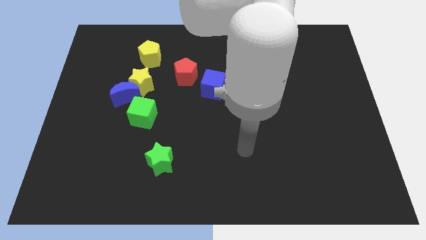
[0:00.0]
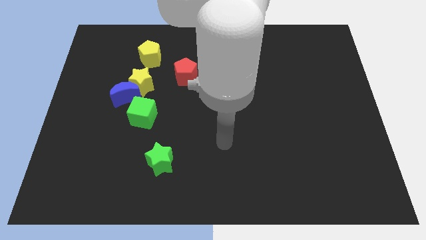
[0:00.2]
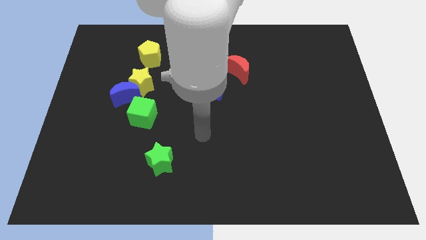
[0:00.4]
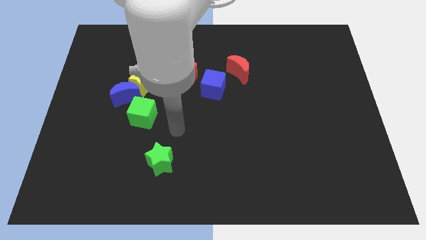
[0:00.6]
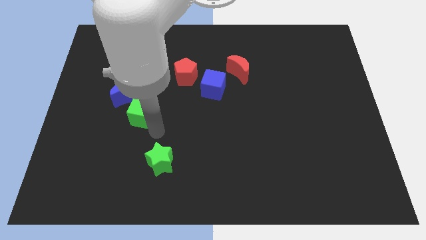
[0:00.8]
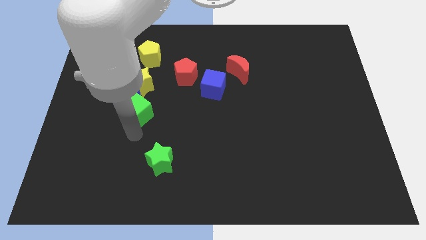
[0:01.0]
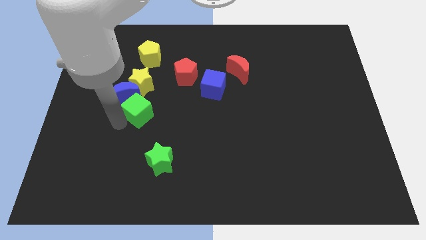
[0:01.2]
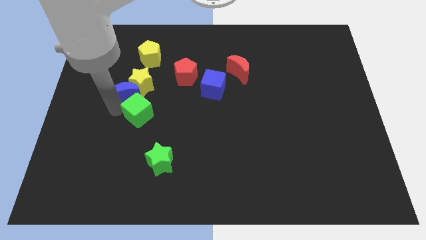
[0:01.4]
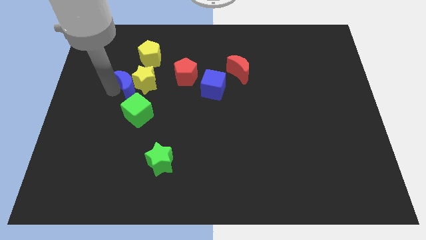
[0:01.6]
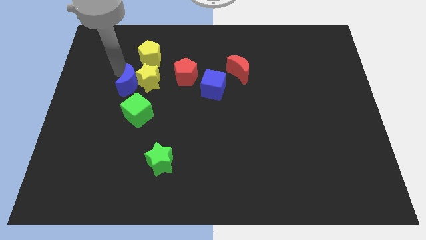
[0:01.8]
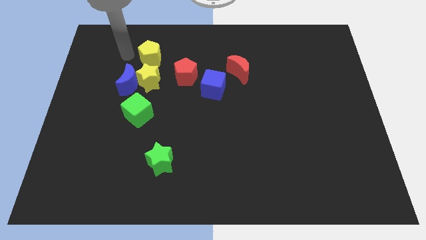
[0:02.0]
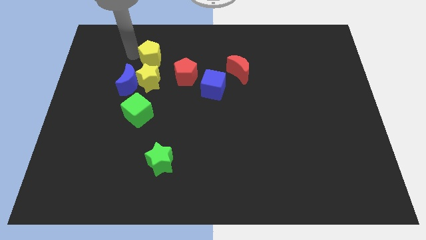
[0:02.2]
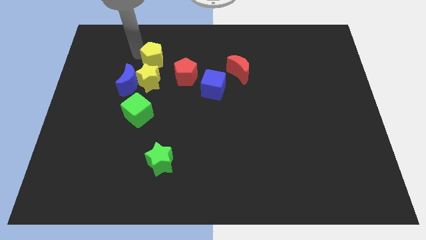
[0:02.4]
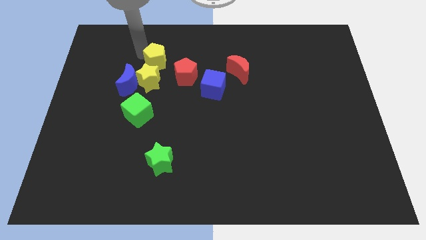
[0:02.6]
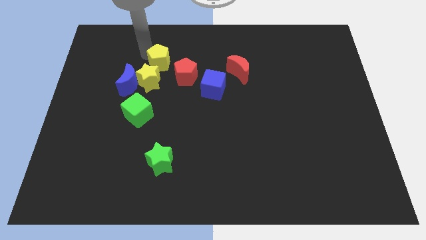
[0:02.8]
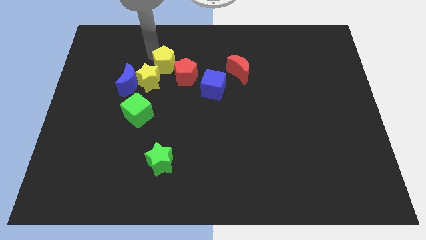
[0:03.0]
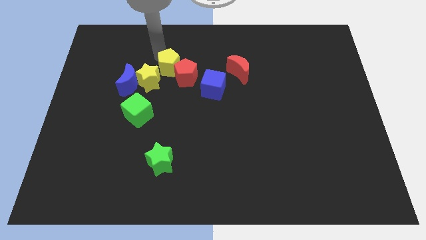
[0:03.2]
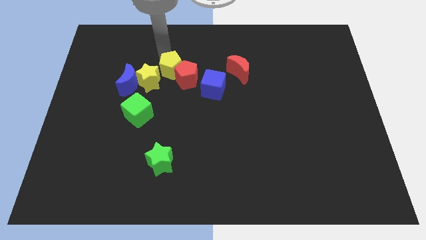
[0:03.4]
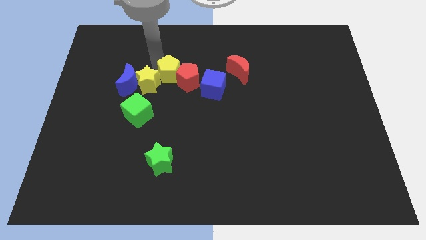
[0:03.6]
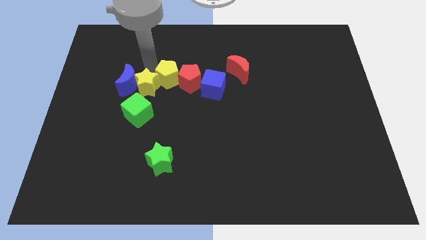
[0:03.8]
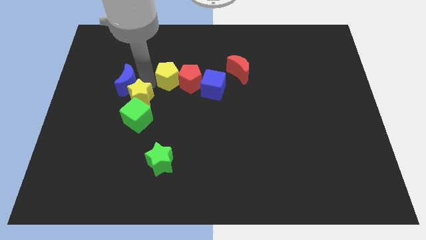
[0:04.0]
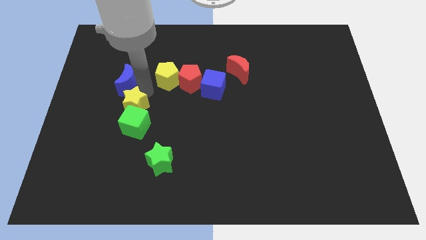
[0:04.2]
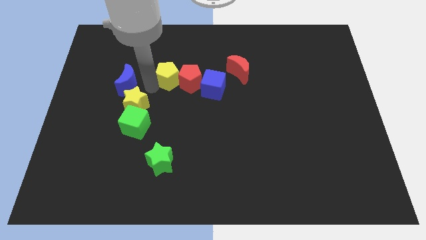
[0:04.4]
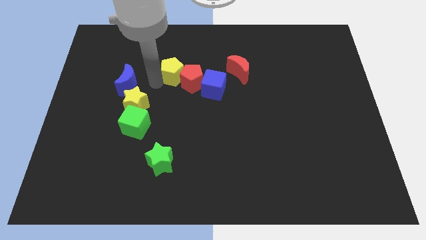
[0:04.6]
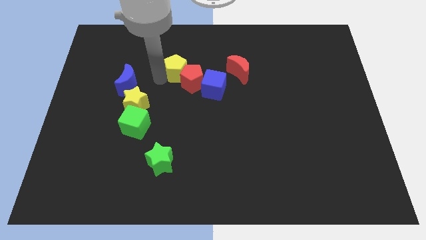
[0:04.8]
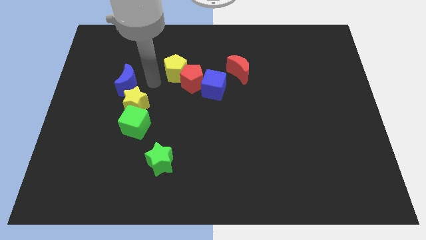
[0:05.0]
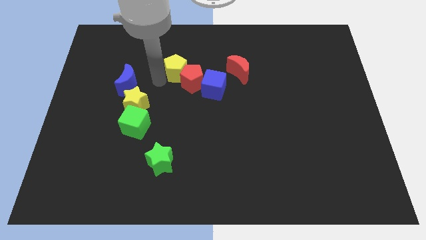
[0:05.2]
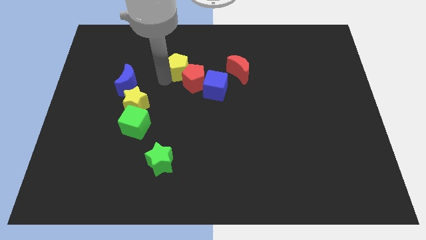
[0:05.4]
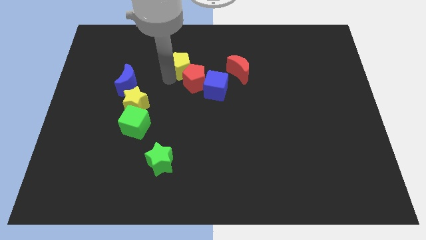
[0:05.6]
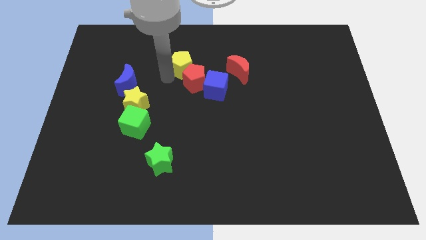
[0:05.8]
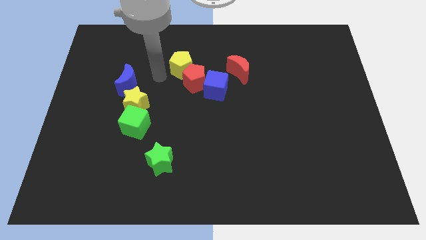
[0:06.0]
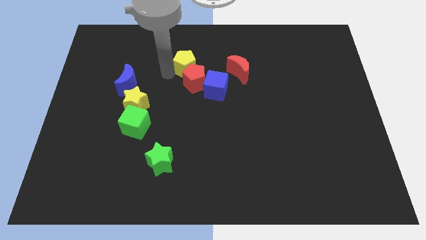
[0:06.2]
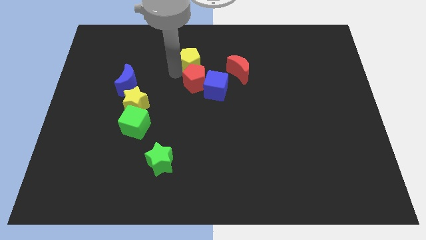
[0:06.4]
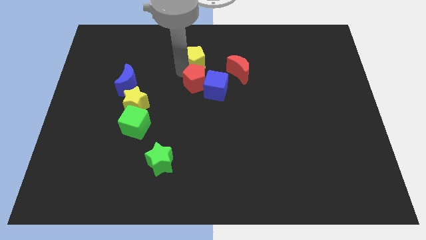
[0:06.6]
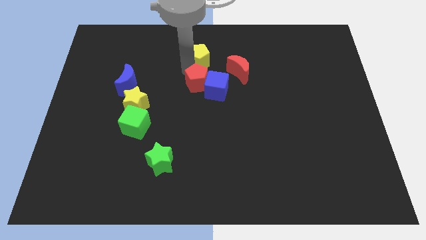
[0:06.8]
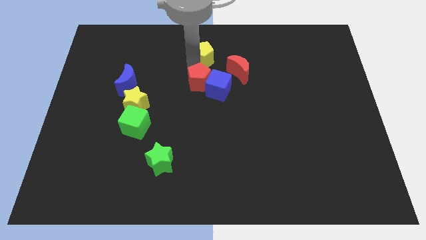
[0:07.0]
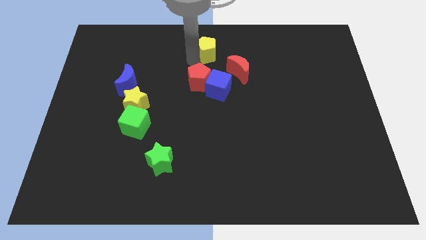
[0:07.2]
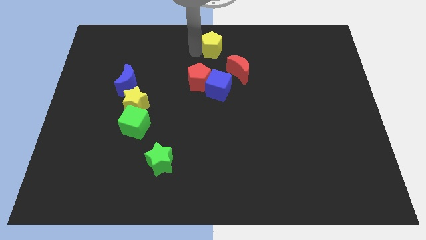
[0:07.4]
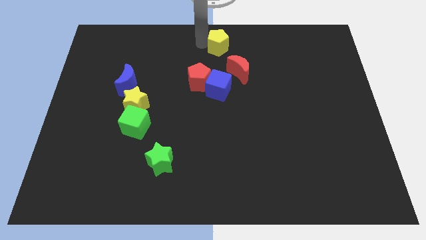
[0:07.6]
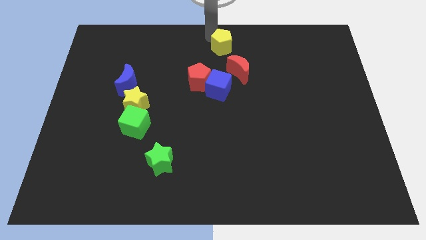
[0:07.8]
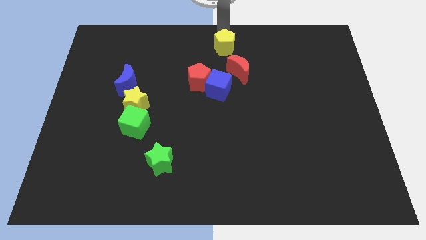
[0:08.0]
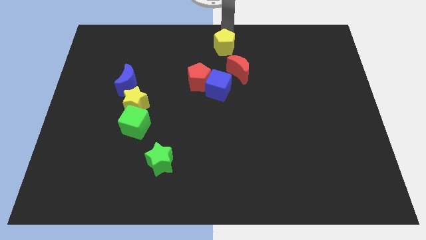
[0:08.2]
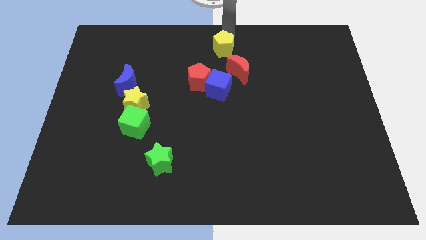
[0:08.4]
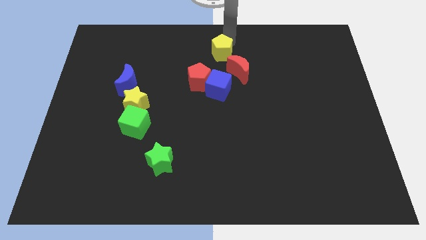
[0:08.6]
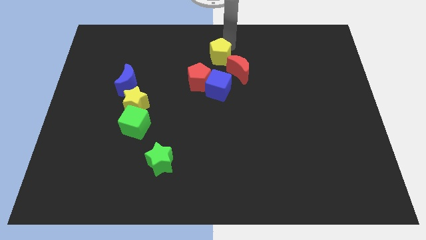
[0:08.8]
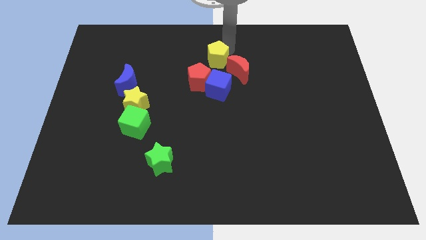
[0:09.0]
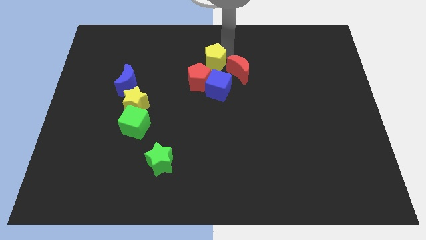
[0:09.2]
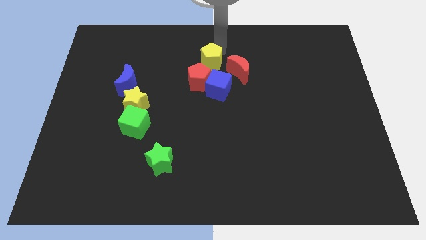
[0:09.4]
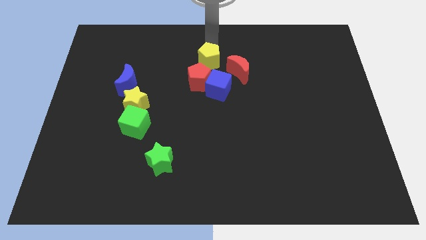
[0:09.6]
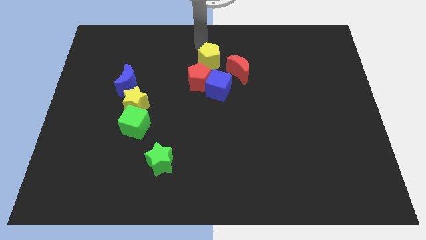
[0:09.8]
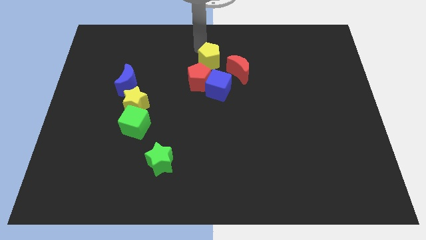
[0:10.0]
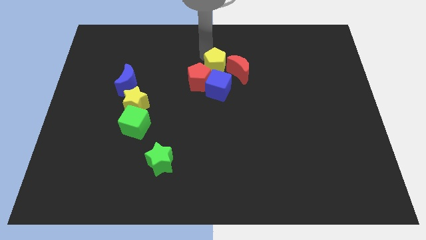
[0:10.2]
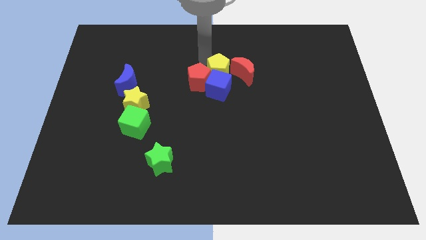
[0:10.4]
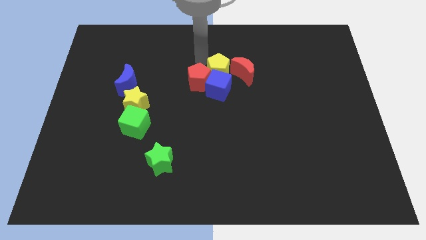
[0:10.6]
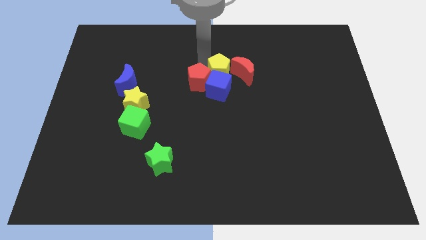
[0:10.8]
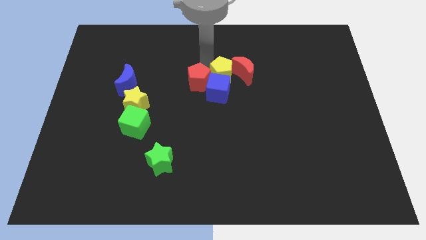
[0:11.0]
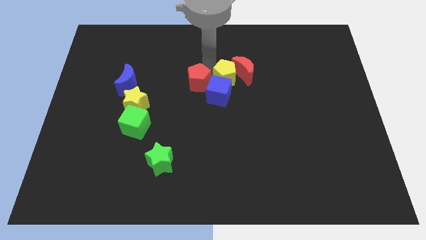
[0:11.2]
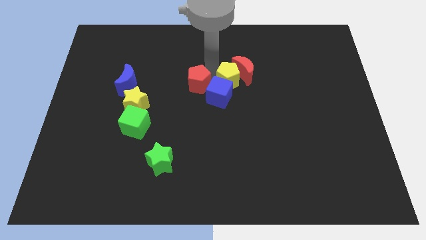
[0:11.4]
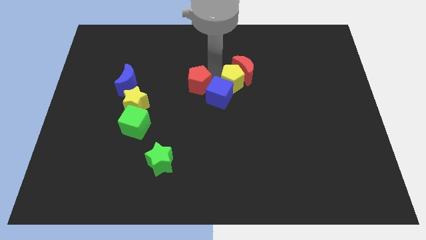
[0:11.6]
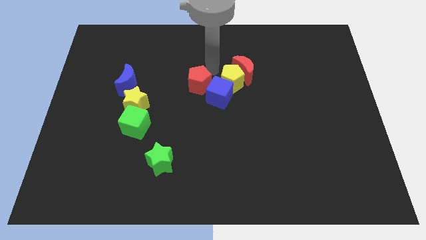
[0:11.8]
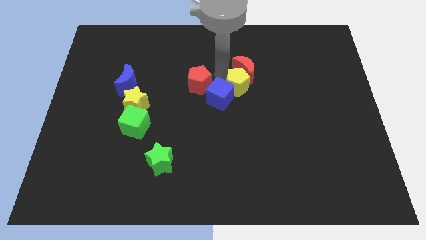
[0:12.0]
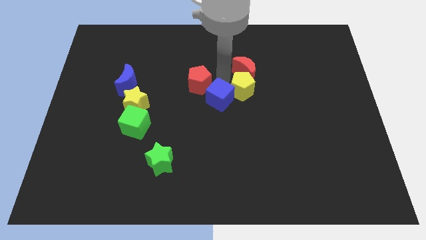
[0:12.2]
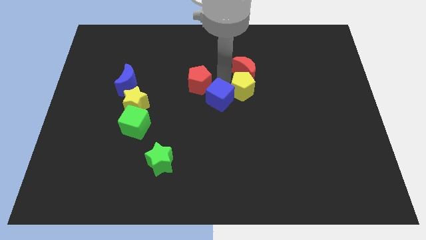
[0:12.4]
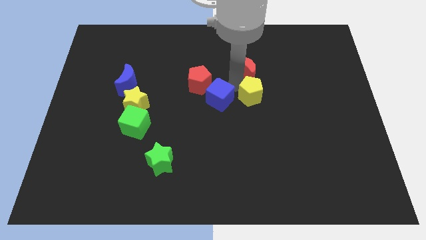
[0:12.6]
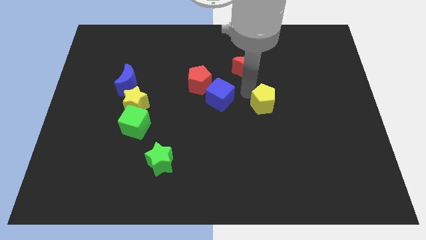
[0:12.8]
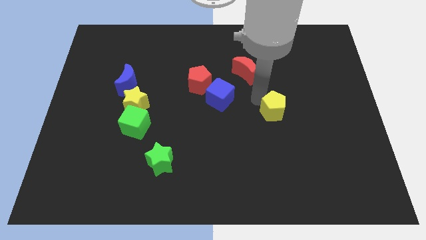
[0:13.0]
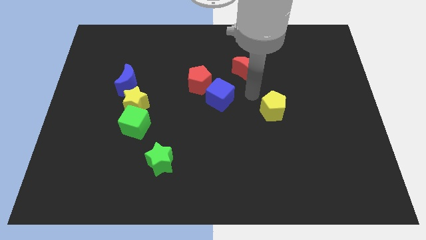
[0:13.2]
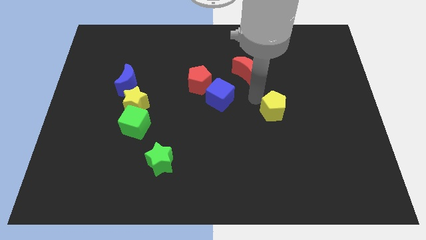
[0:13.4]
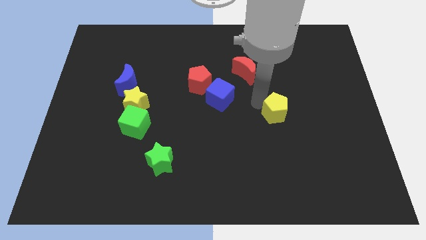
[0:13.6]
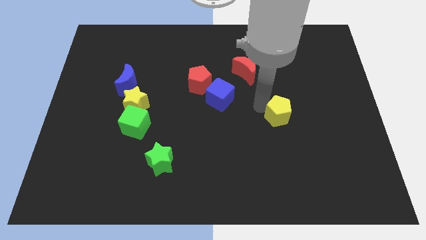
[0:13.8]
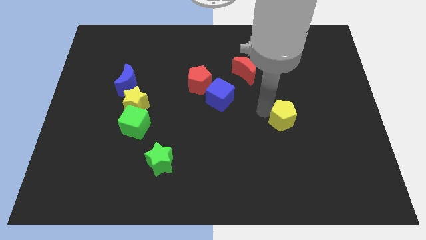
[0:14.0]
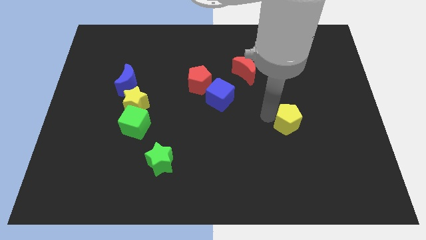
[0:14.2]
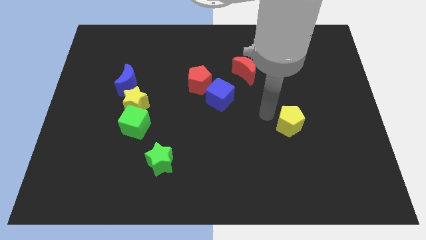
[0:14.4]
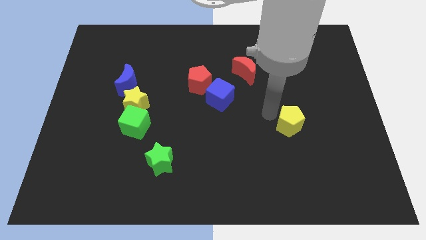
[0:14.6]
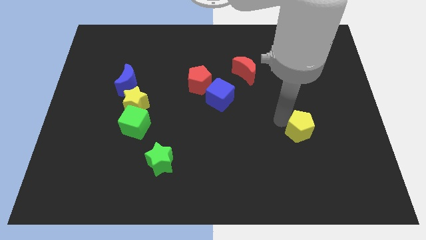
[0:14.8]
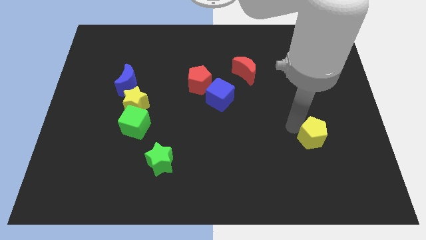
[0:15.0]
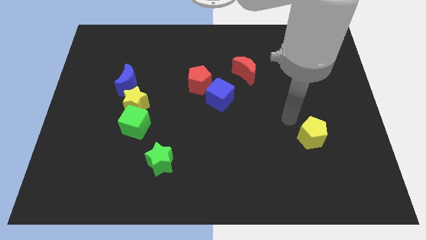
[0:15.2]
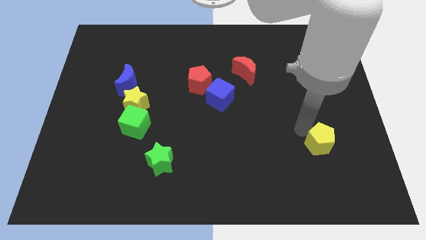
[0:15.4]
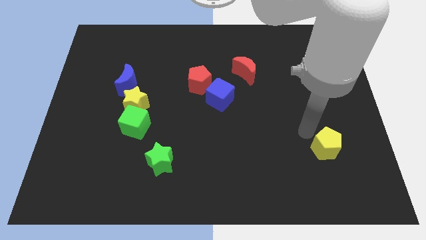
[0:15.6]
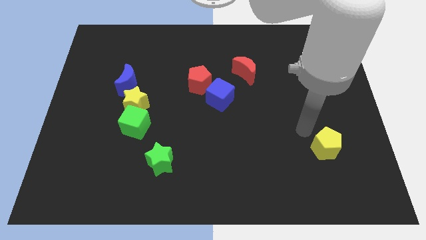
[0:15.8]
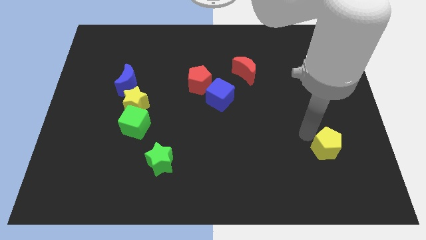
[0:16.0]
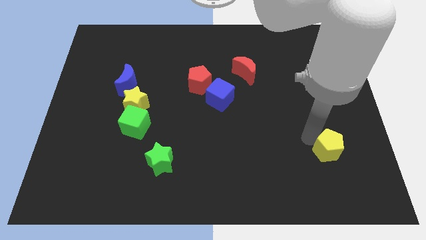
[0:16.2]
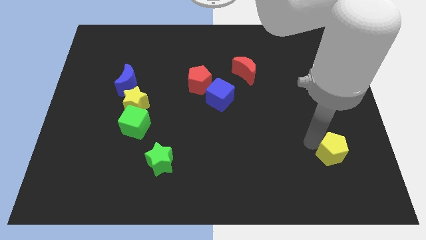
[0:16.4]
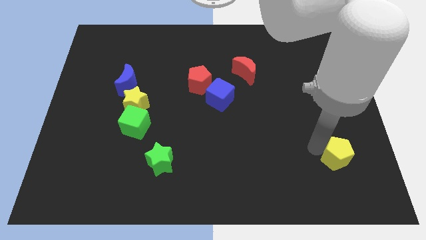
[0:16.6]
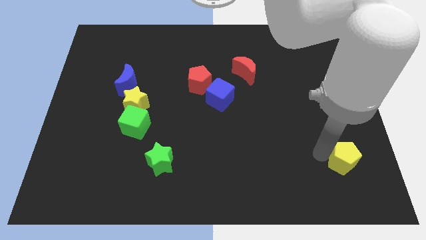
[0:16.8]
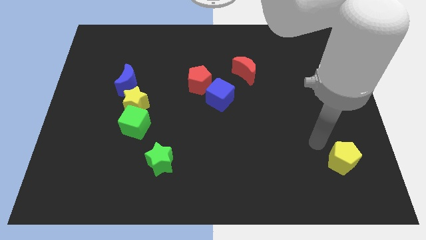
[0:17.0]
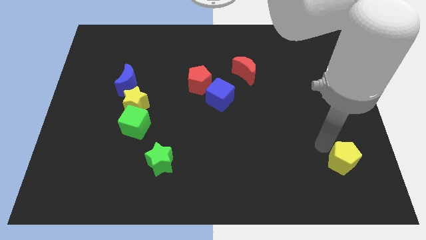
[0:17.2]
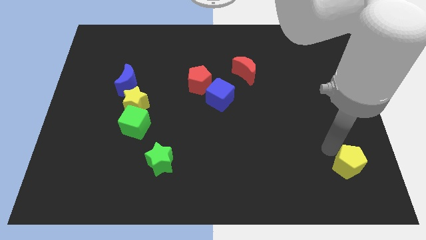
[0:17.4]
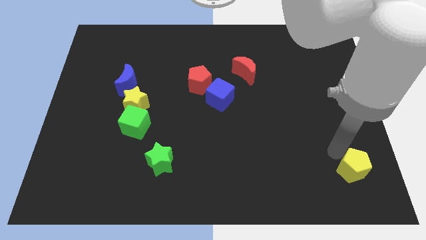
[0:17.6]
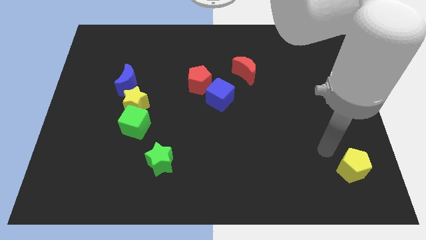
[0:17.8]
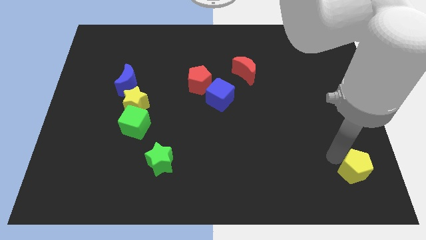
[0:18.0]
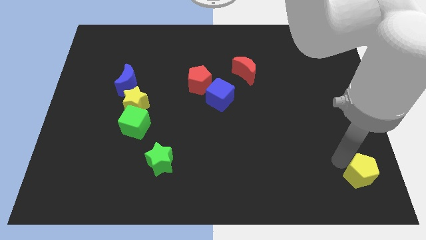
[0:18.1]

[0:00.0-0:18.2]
slide the yellow pentagon to the bottom right corner
